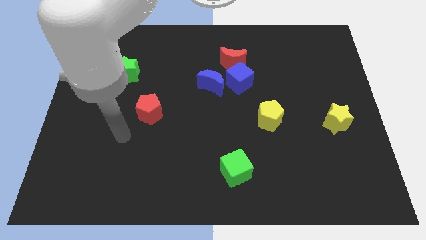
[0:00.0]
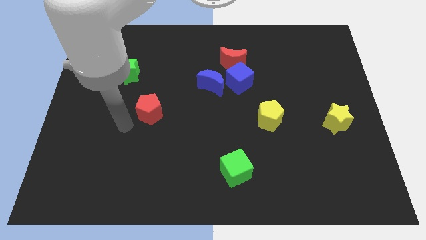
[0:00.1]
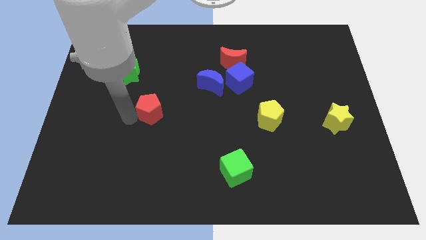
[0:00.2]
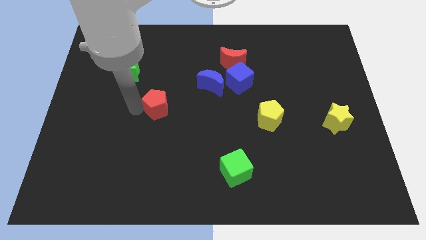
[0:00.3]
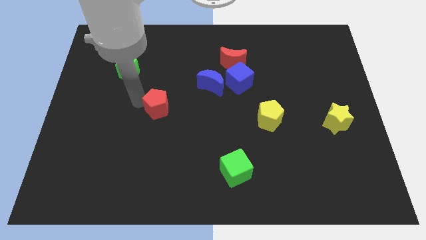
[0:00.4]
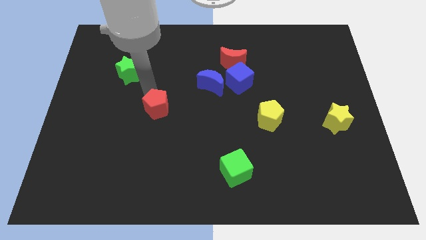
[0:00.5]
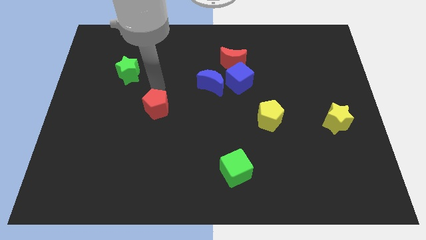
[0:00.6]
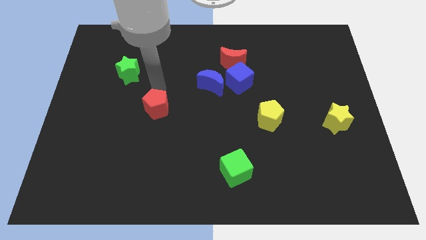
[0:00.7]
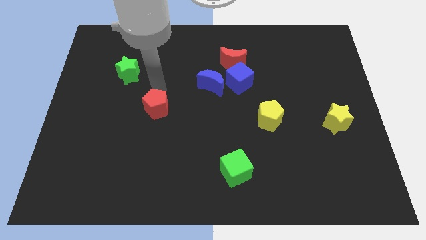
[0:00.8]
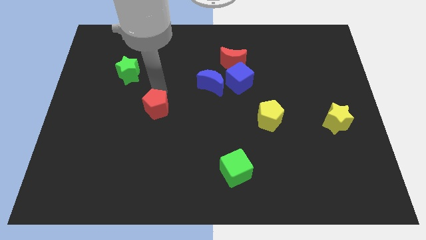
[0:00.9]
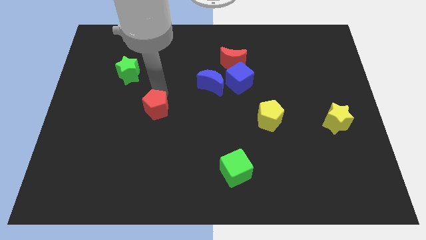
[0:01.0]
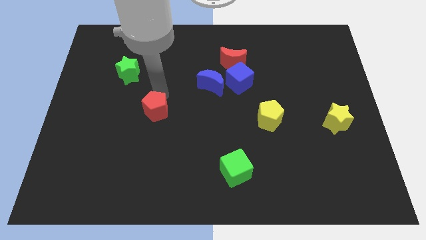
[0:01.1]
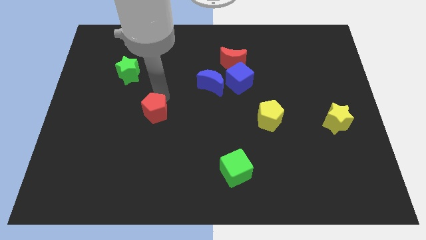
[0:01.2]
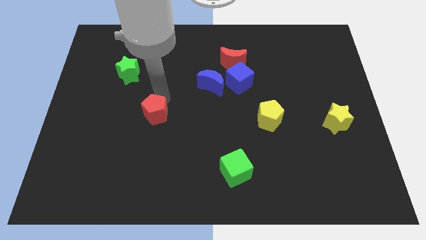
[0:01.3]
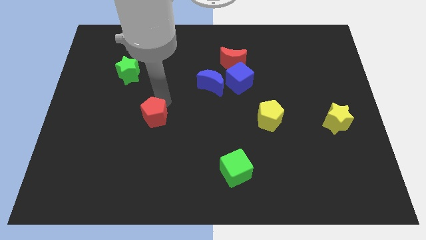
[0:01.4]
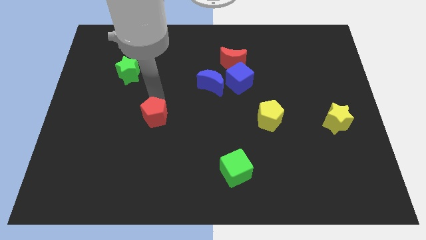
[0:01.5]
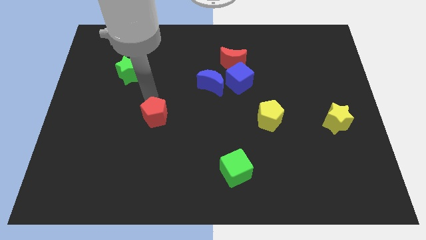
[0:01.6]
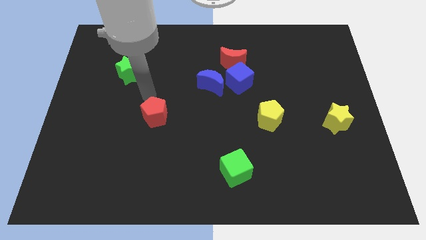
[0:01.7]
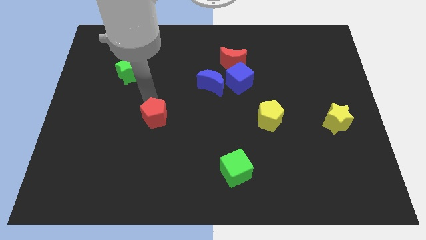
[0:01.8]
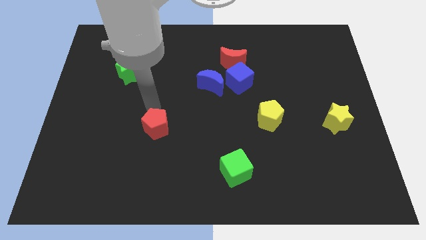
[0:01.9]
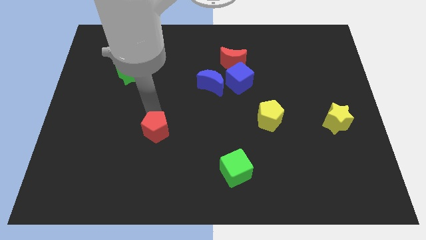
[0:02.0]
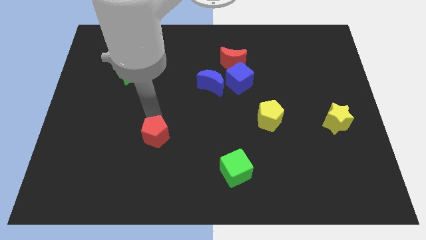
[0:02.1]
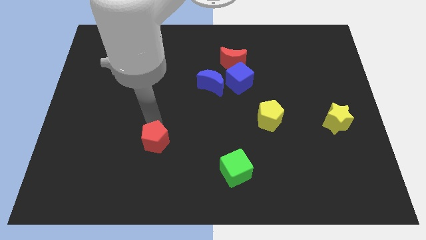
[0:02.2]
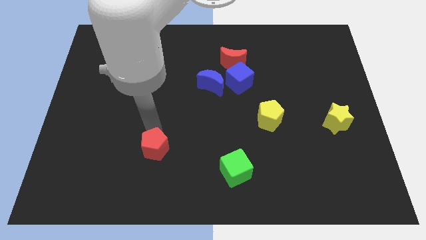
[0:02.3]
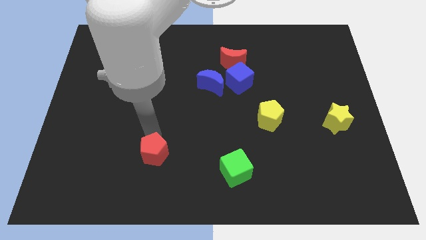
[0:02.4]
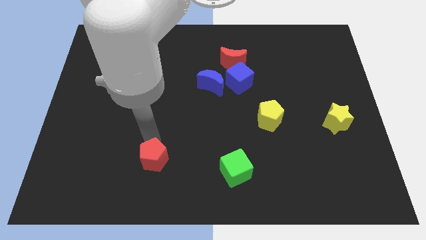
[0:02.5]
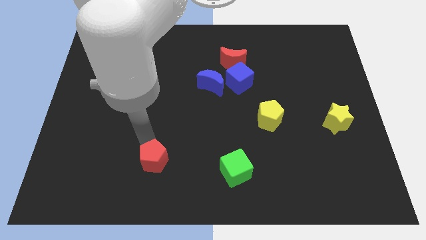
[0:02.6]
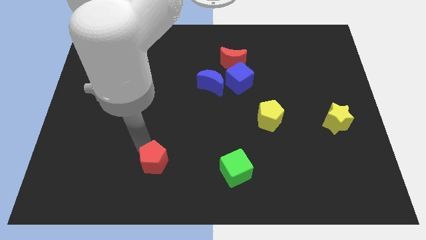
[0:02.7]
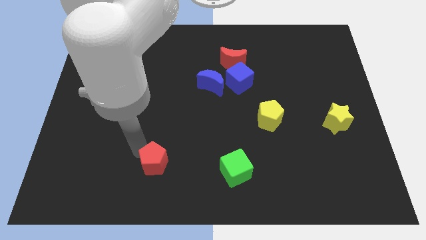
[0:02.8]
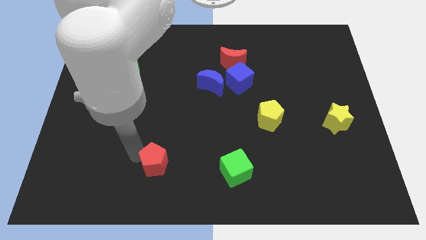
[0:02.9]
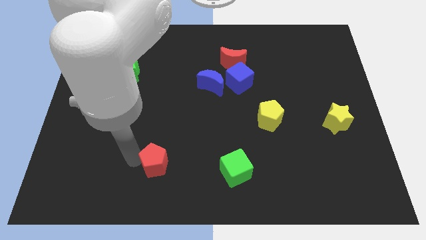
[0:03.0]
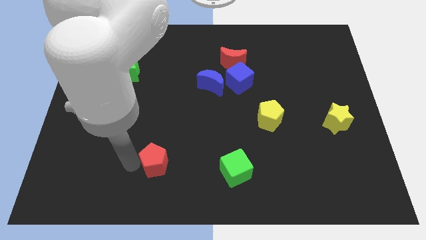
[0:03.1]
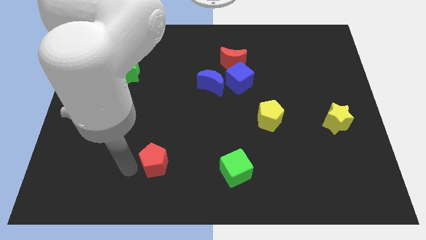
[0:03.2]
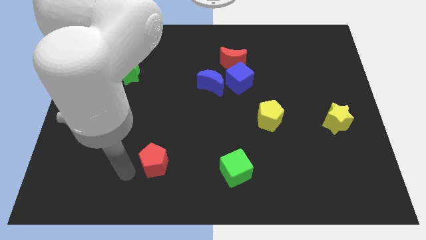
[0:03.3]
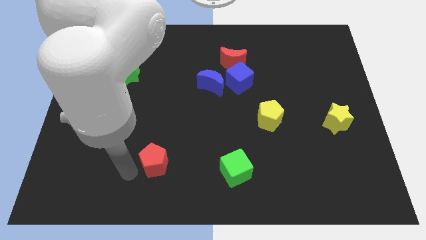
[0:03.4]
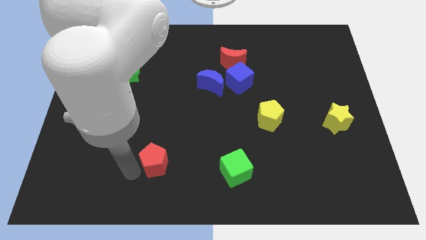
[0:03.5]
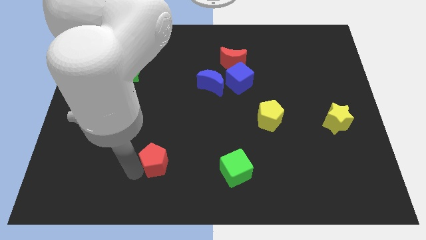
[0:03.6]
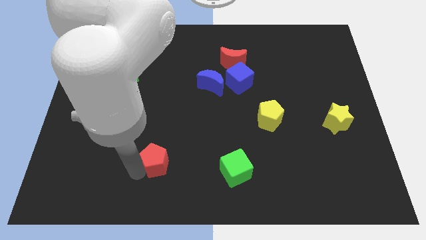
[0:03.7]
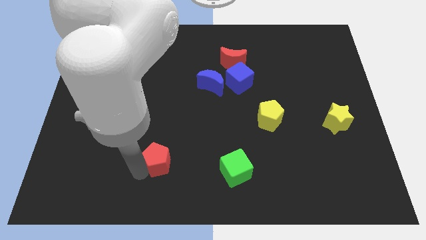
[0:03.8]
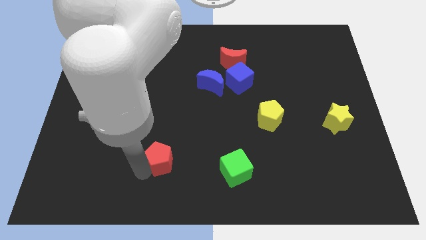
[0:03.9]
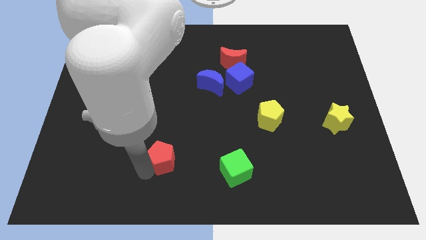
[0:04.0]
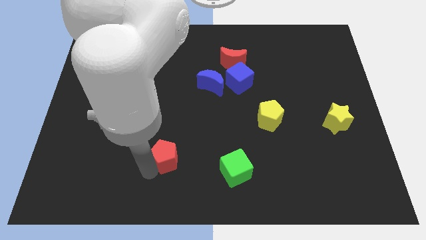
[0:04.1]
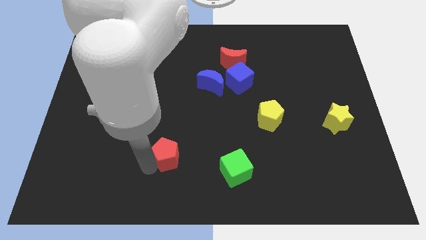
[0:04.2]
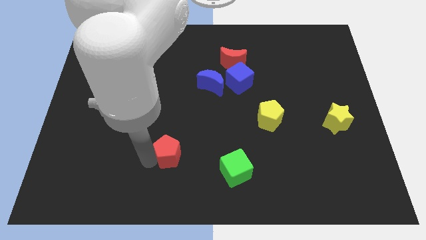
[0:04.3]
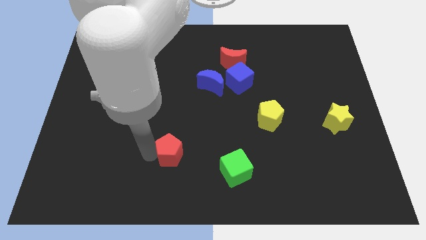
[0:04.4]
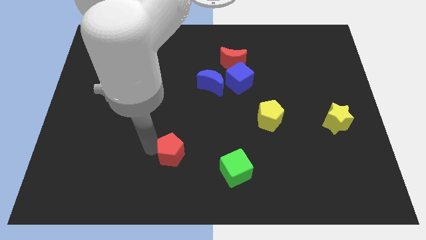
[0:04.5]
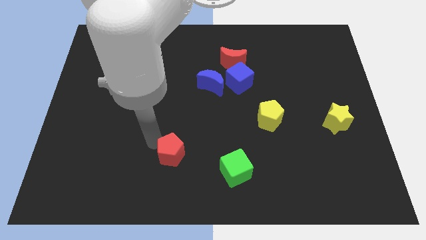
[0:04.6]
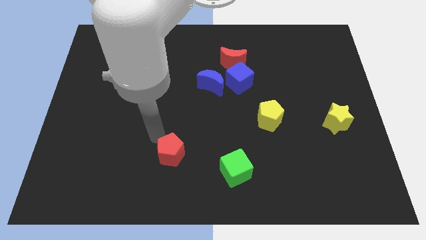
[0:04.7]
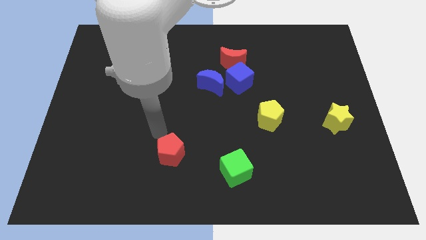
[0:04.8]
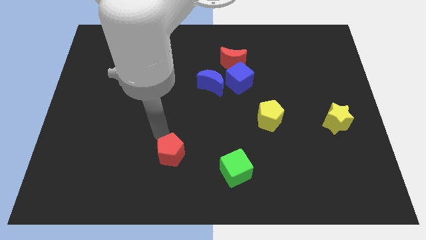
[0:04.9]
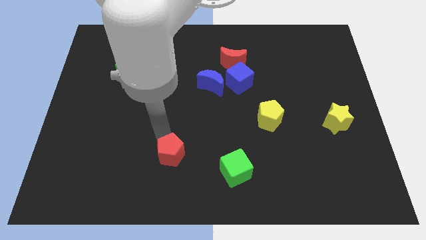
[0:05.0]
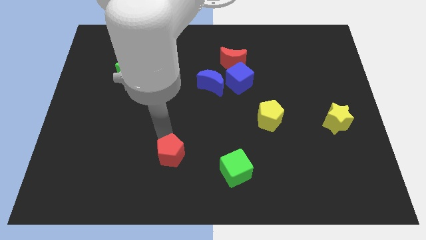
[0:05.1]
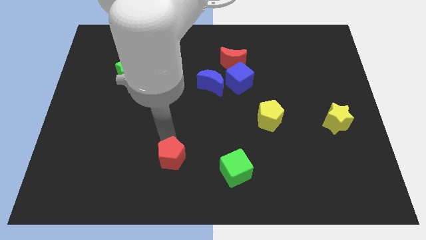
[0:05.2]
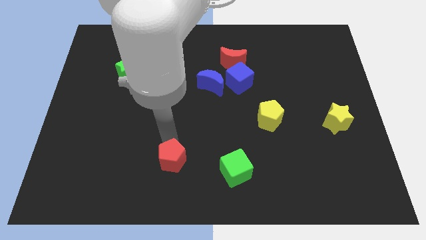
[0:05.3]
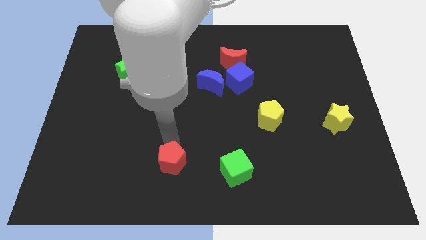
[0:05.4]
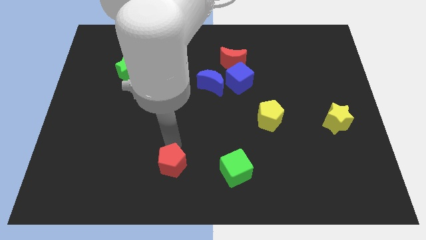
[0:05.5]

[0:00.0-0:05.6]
put the red pentagon to the bottom side

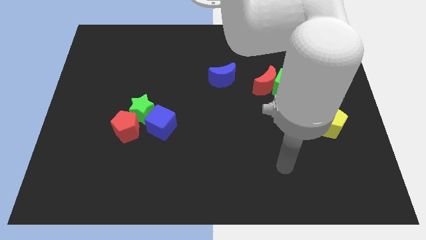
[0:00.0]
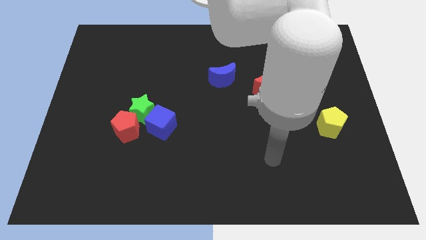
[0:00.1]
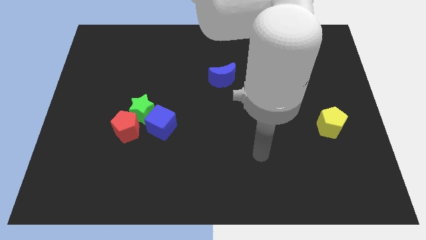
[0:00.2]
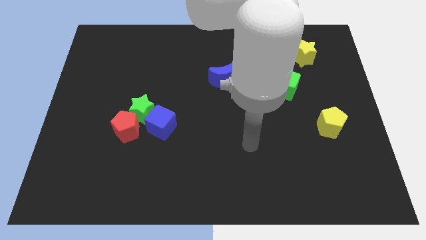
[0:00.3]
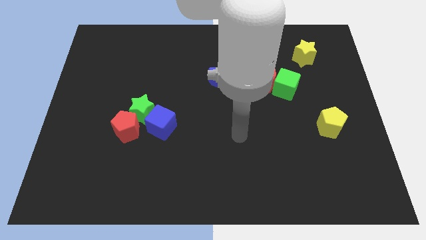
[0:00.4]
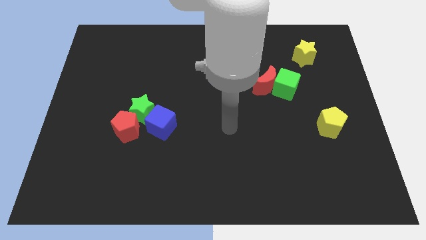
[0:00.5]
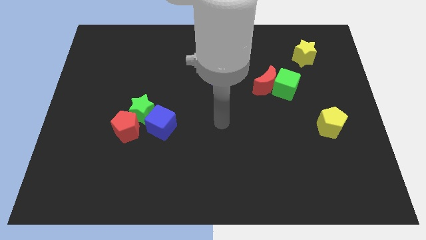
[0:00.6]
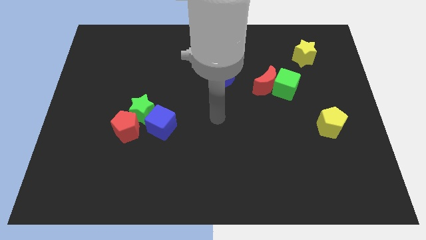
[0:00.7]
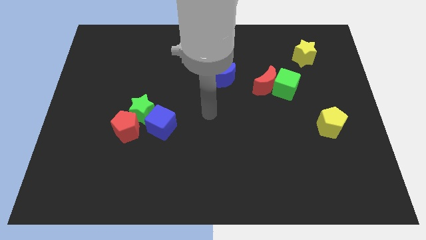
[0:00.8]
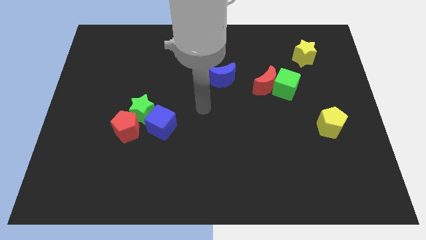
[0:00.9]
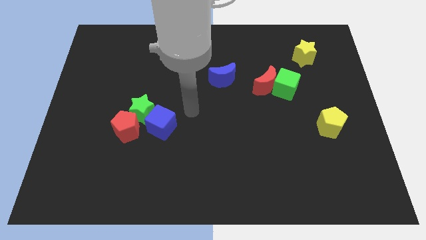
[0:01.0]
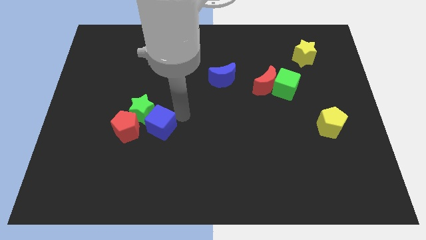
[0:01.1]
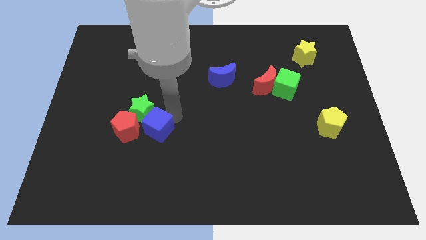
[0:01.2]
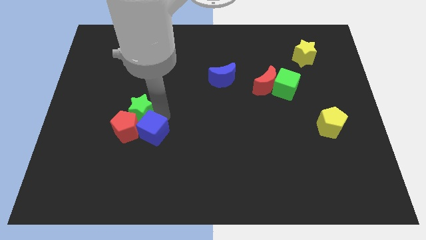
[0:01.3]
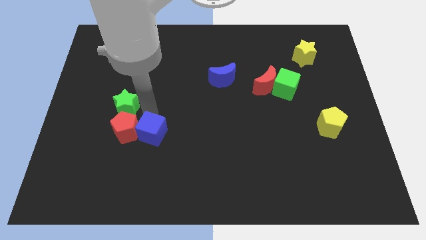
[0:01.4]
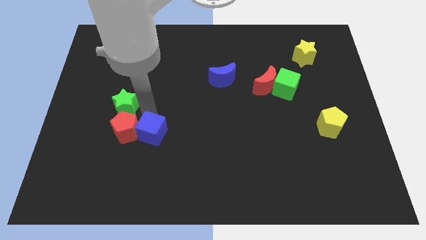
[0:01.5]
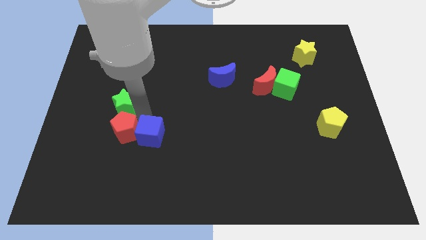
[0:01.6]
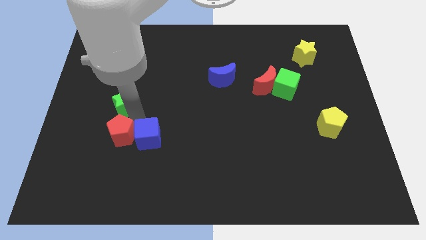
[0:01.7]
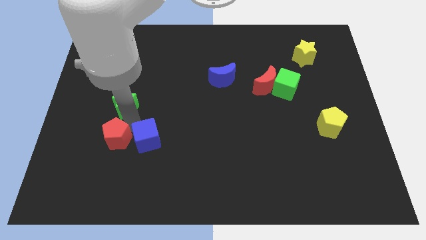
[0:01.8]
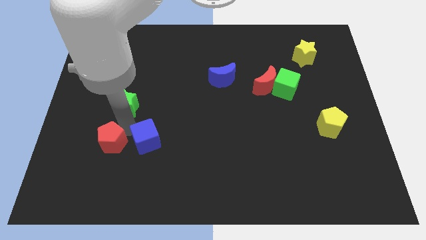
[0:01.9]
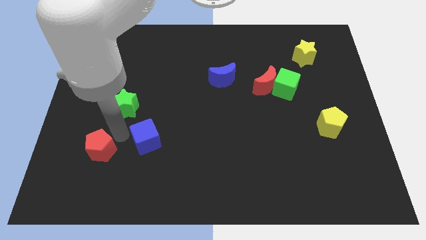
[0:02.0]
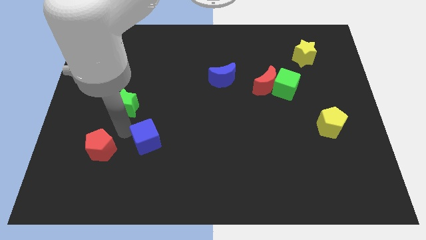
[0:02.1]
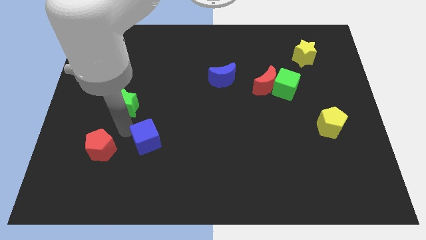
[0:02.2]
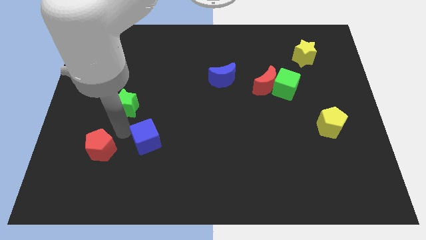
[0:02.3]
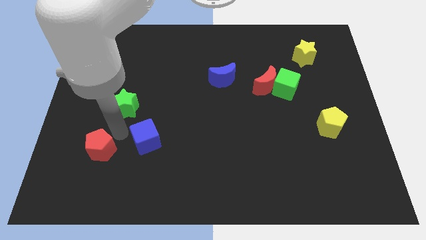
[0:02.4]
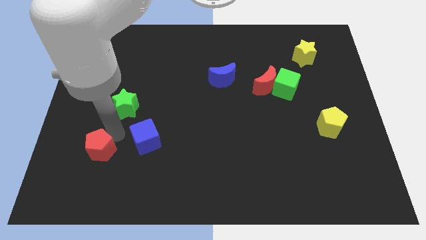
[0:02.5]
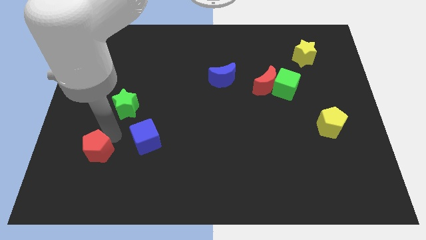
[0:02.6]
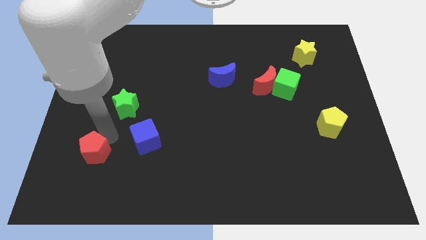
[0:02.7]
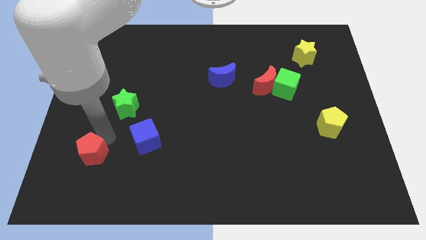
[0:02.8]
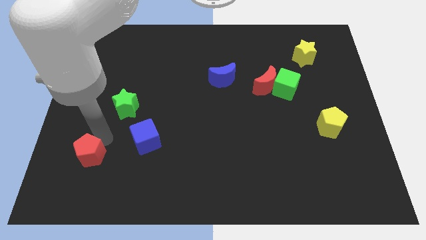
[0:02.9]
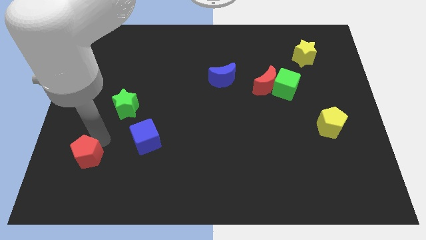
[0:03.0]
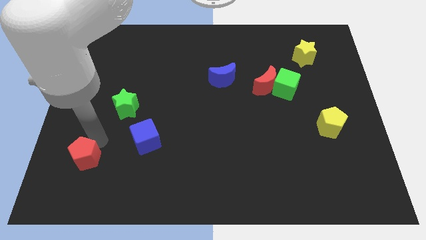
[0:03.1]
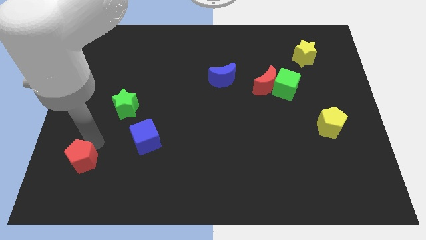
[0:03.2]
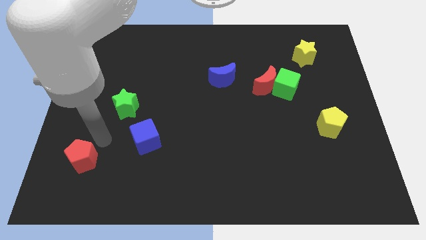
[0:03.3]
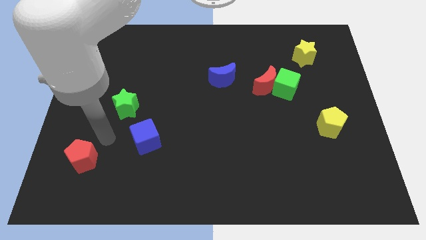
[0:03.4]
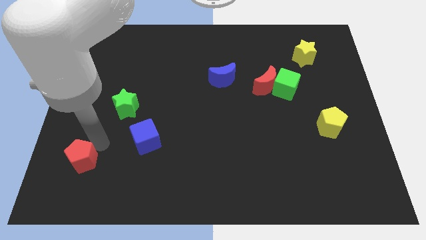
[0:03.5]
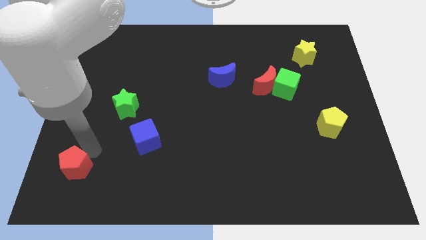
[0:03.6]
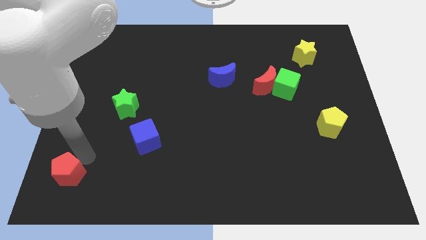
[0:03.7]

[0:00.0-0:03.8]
slide the red pentagon to the bottom left of the board
